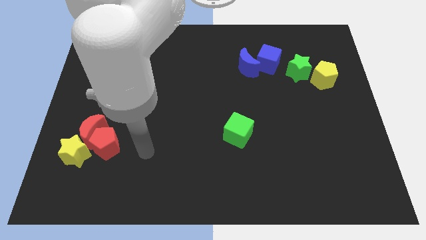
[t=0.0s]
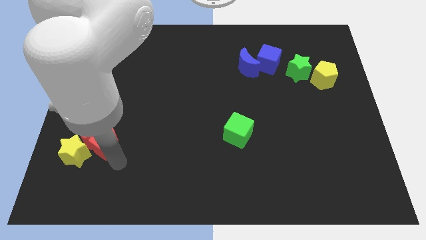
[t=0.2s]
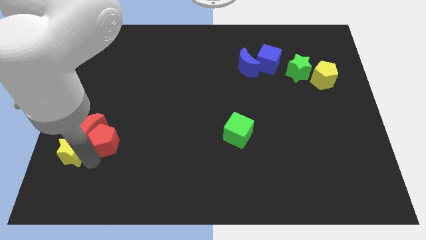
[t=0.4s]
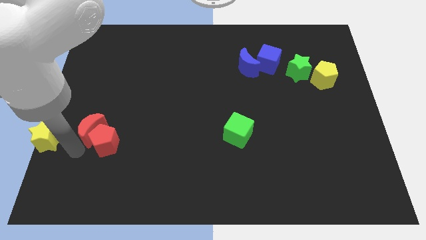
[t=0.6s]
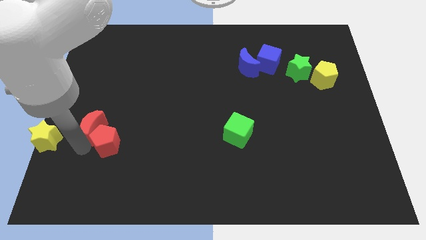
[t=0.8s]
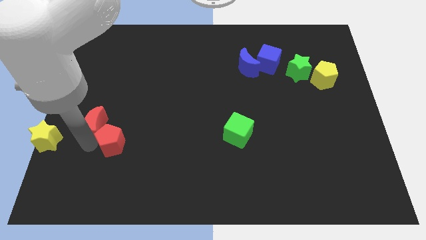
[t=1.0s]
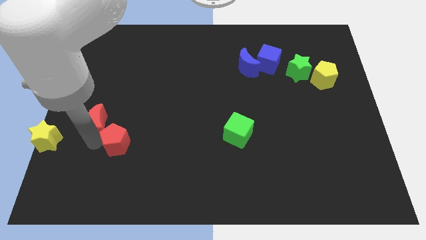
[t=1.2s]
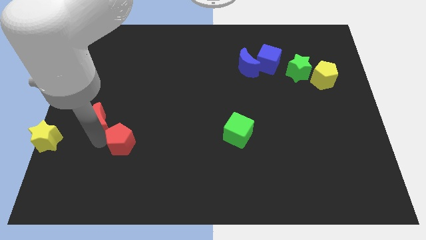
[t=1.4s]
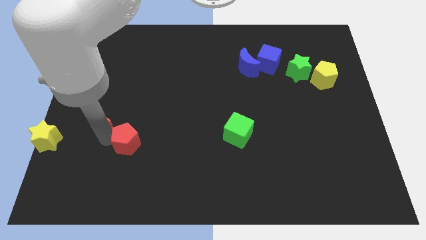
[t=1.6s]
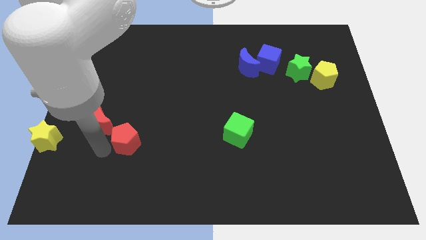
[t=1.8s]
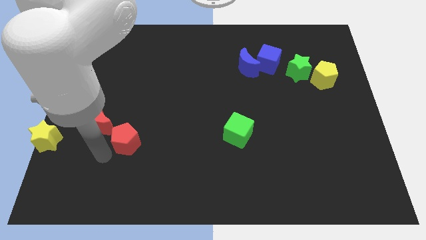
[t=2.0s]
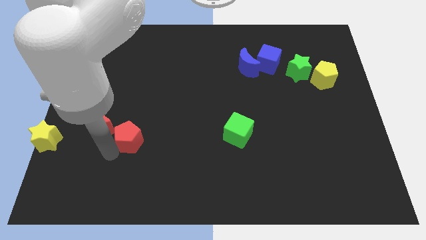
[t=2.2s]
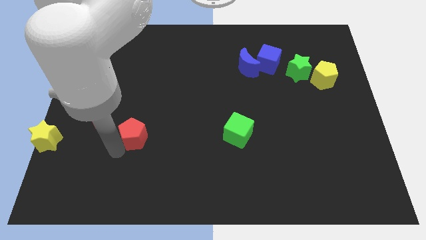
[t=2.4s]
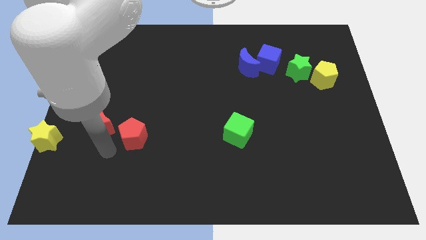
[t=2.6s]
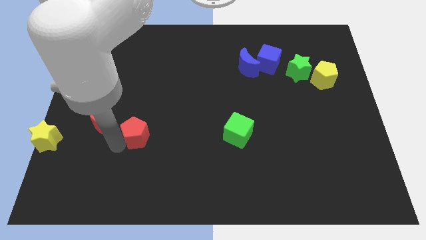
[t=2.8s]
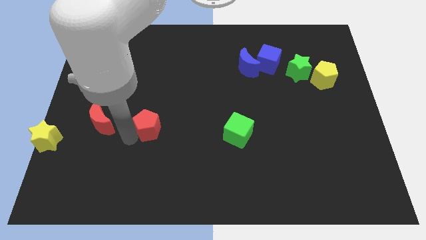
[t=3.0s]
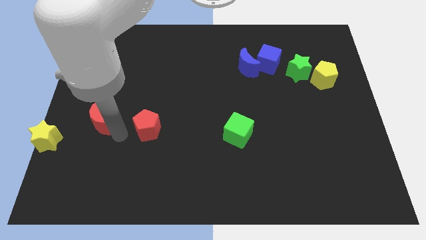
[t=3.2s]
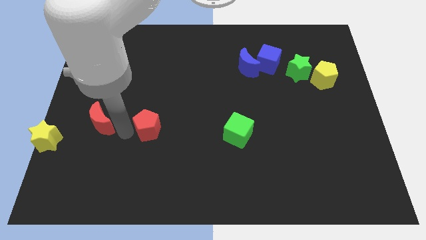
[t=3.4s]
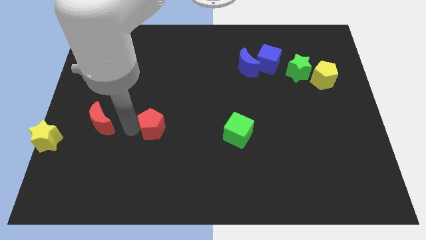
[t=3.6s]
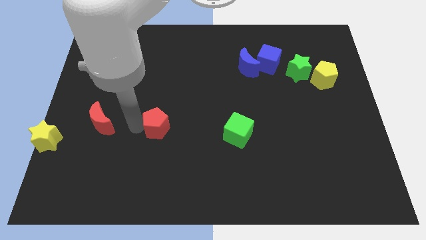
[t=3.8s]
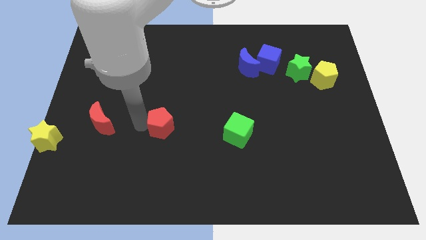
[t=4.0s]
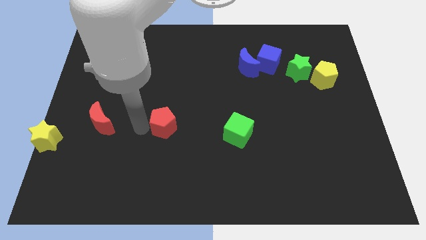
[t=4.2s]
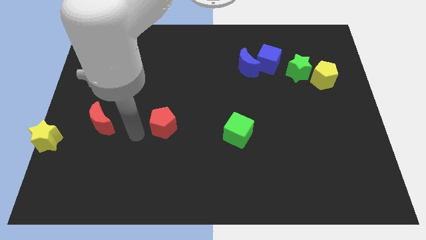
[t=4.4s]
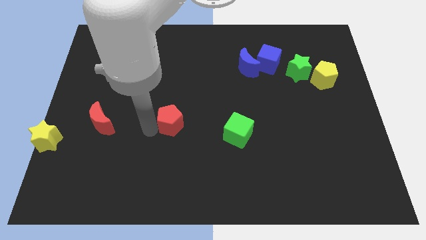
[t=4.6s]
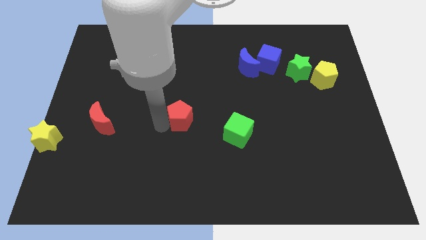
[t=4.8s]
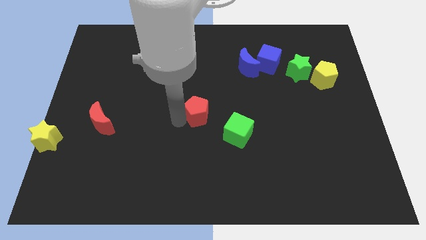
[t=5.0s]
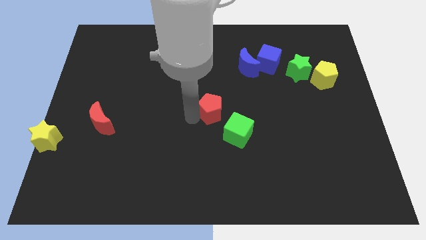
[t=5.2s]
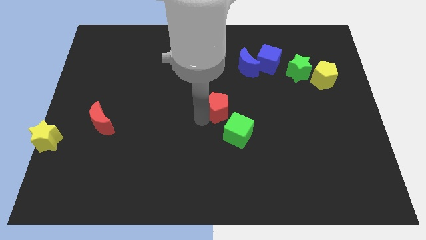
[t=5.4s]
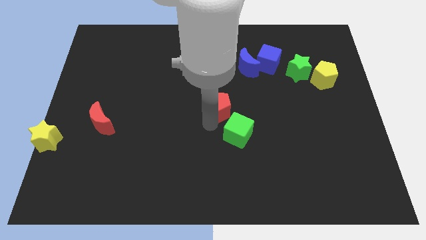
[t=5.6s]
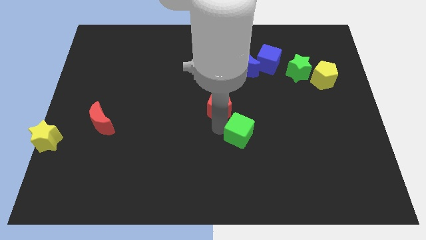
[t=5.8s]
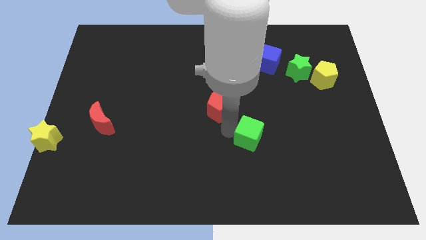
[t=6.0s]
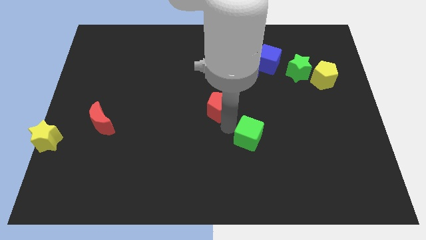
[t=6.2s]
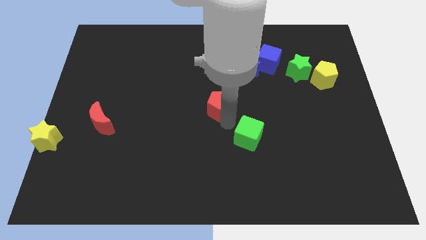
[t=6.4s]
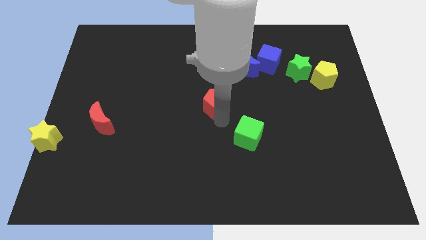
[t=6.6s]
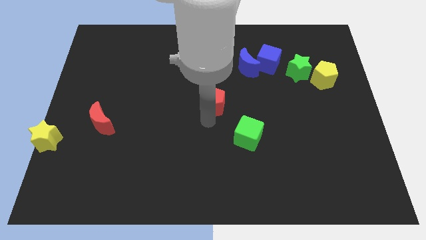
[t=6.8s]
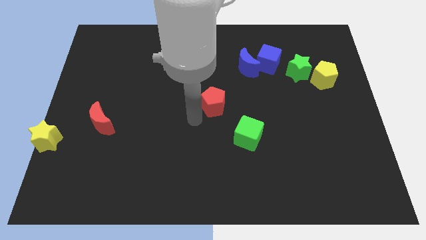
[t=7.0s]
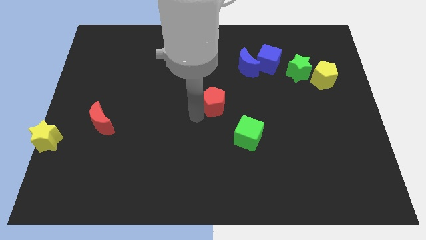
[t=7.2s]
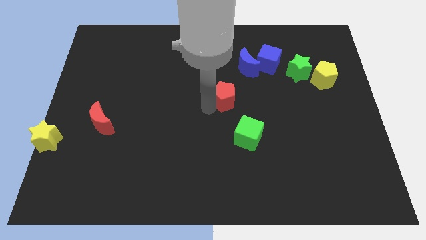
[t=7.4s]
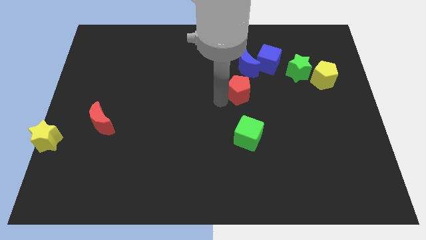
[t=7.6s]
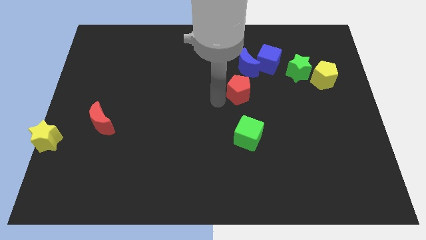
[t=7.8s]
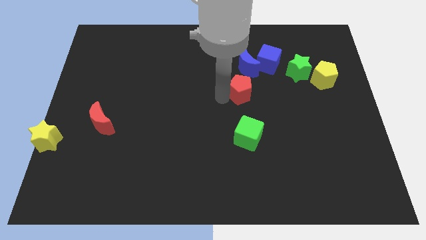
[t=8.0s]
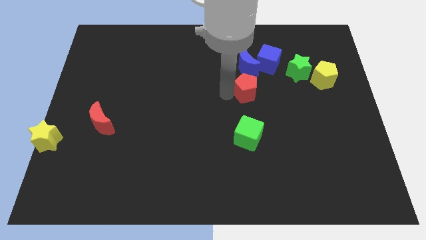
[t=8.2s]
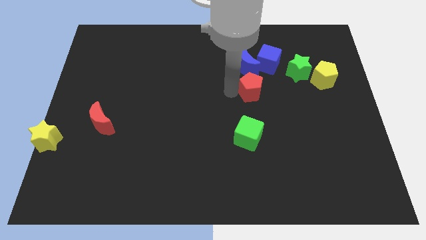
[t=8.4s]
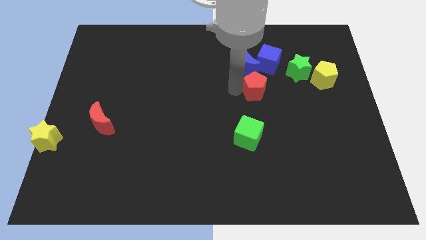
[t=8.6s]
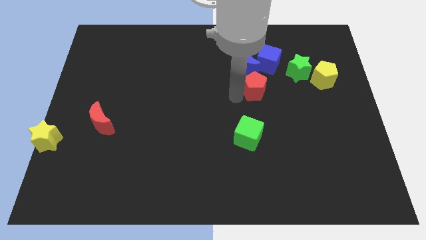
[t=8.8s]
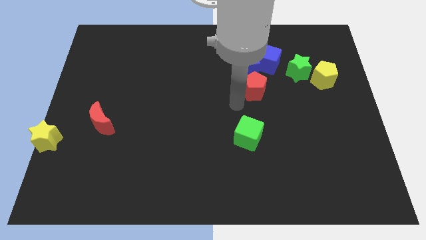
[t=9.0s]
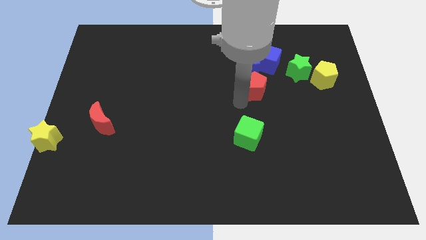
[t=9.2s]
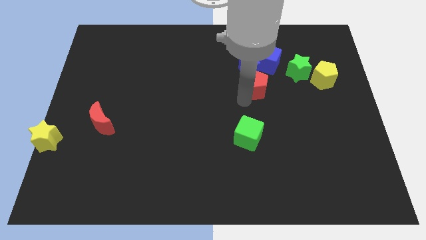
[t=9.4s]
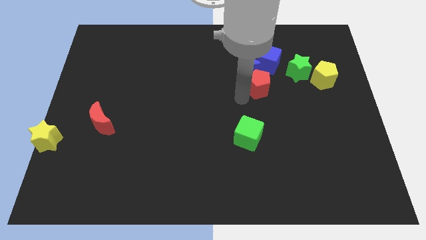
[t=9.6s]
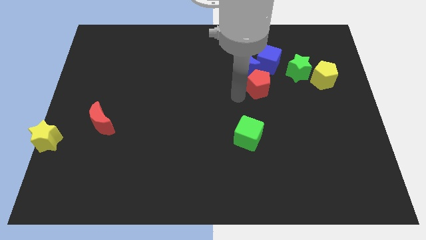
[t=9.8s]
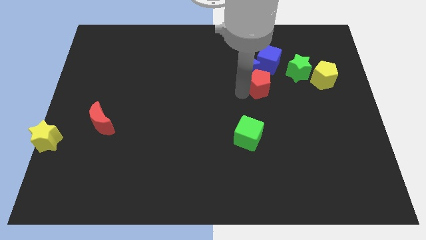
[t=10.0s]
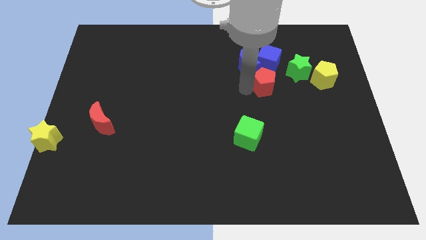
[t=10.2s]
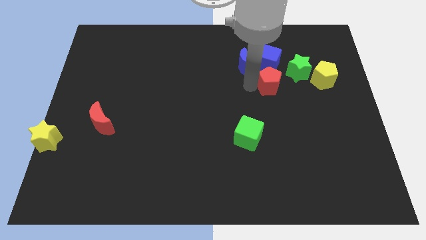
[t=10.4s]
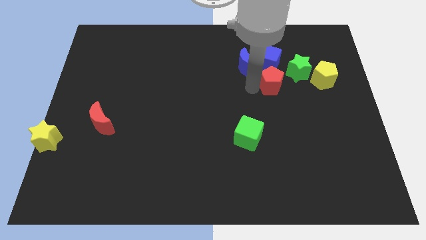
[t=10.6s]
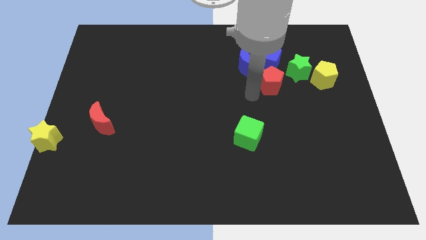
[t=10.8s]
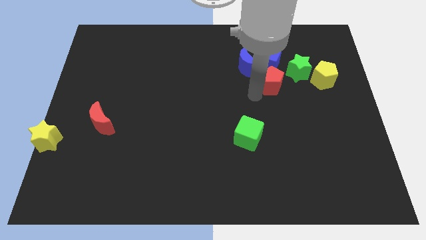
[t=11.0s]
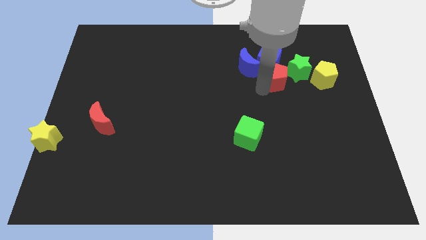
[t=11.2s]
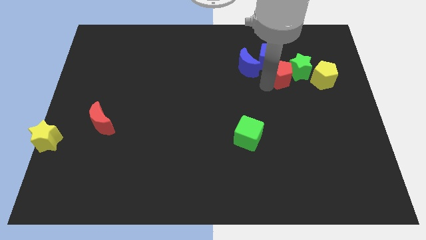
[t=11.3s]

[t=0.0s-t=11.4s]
put the red pentagon close to the green star
